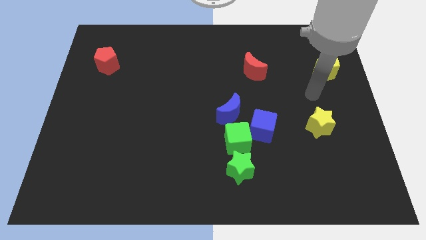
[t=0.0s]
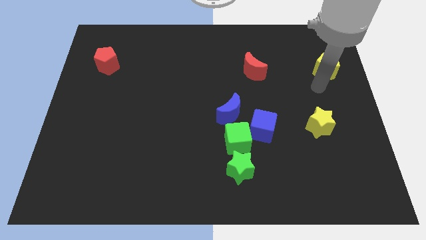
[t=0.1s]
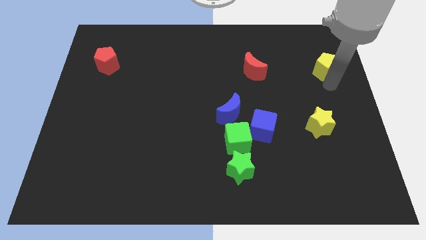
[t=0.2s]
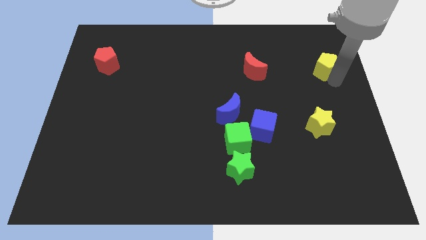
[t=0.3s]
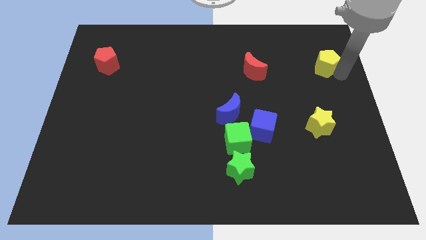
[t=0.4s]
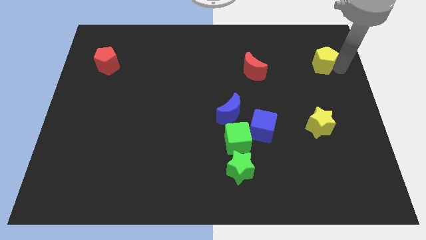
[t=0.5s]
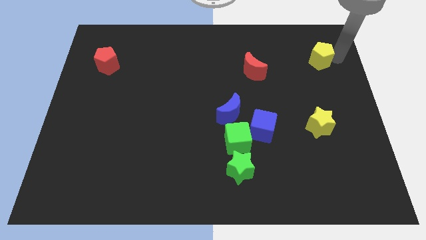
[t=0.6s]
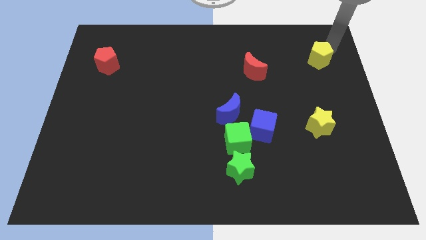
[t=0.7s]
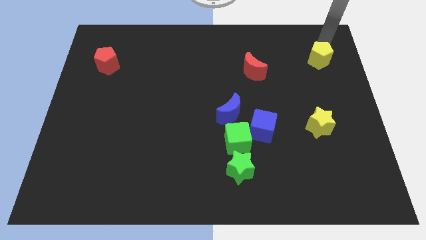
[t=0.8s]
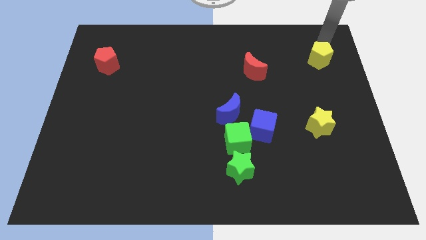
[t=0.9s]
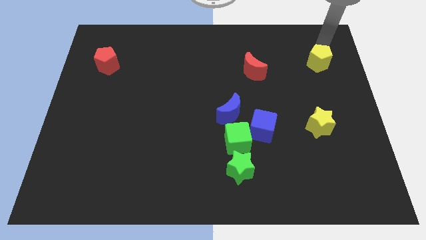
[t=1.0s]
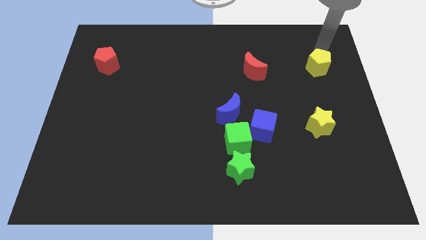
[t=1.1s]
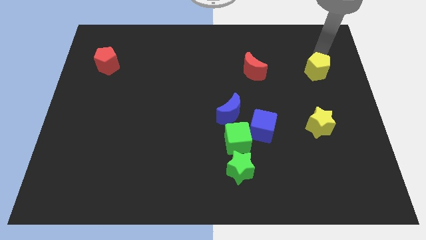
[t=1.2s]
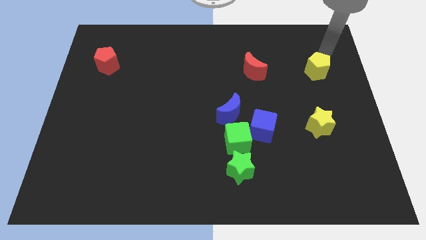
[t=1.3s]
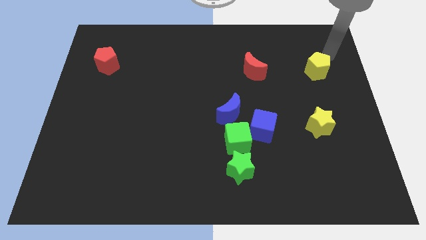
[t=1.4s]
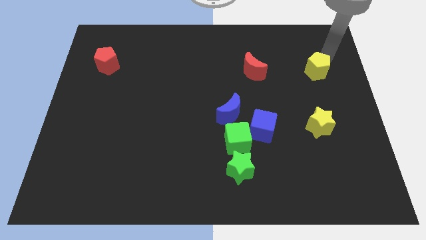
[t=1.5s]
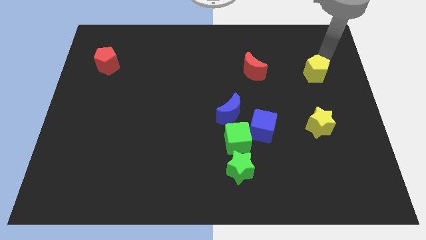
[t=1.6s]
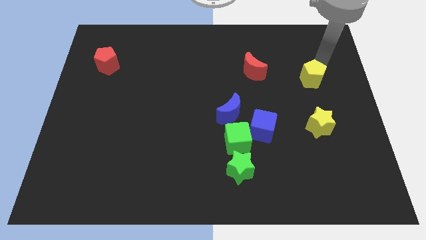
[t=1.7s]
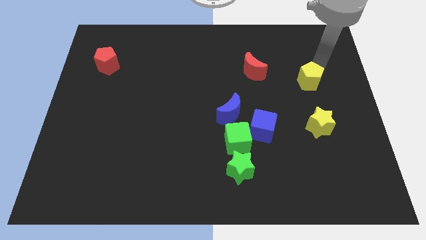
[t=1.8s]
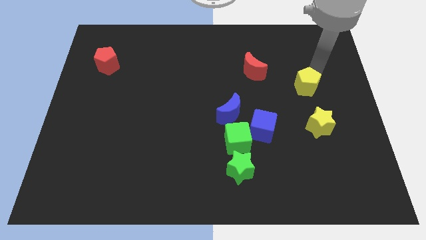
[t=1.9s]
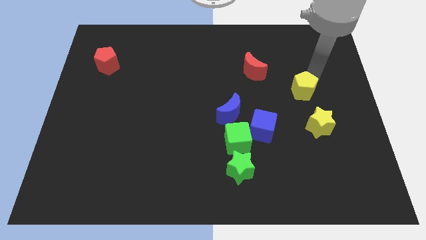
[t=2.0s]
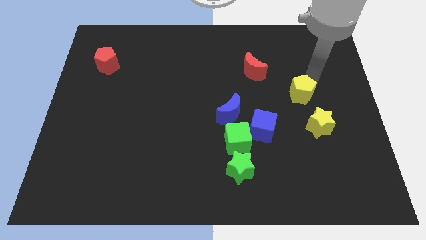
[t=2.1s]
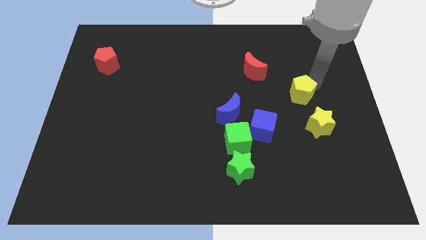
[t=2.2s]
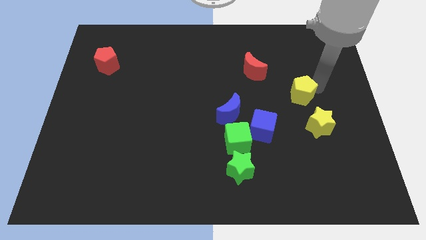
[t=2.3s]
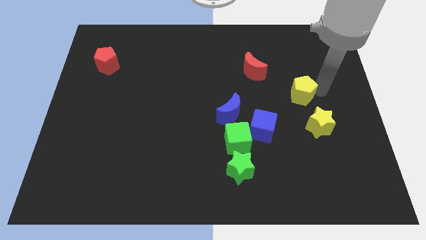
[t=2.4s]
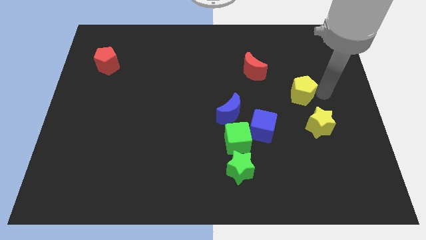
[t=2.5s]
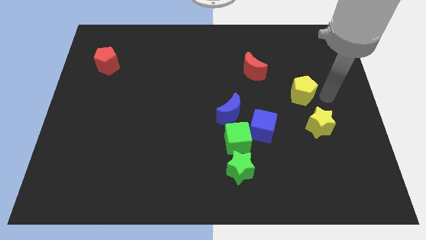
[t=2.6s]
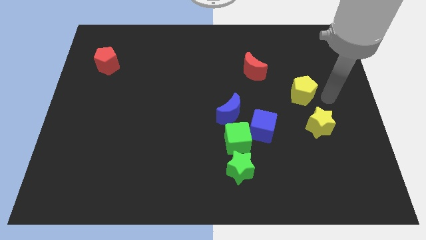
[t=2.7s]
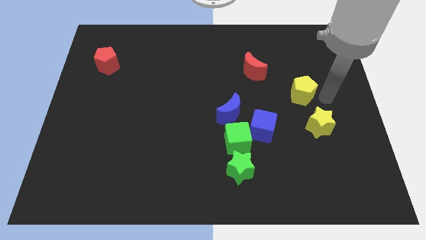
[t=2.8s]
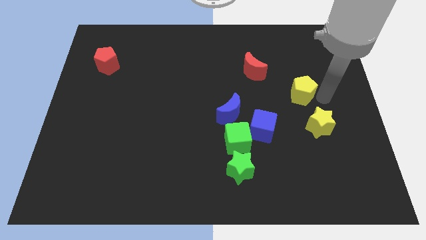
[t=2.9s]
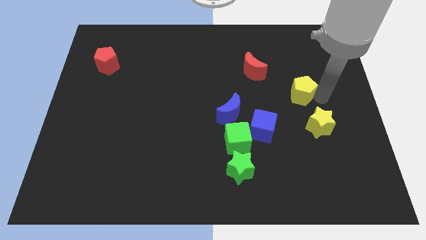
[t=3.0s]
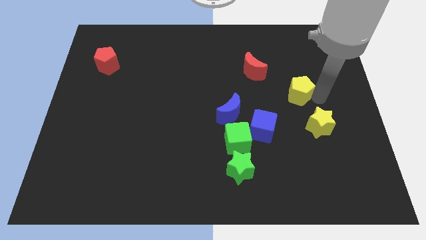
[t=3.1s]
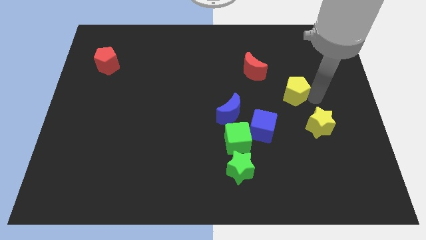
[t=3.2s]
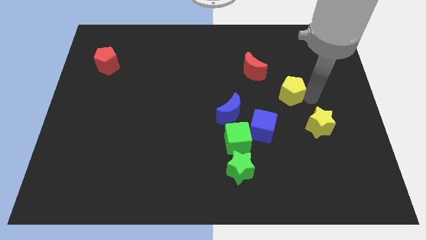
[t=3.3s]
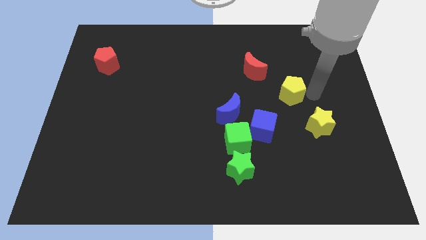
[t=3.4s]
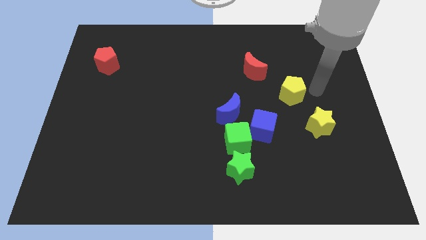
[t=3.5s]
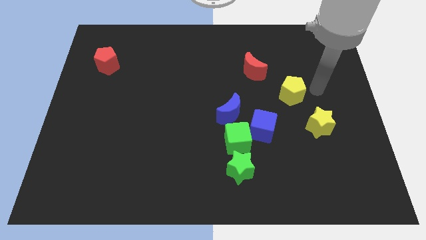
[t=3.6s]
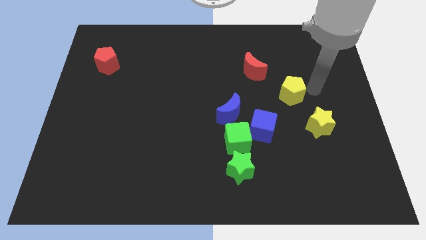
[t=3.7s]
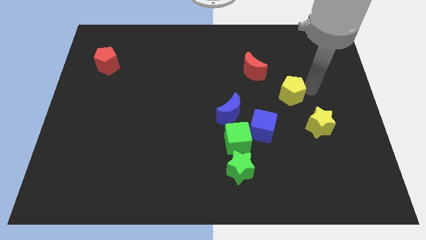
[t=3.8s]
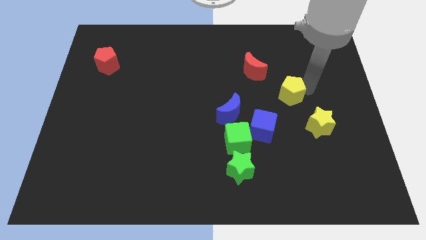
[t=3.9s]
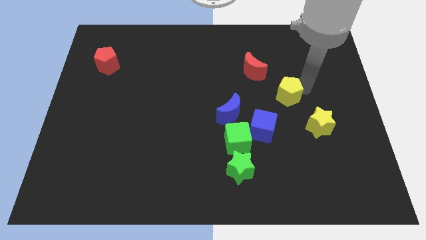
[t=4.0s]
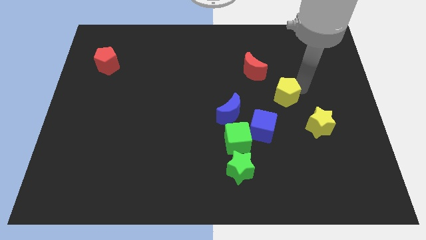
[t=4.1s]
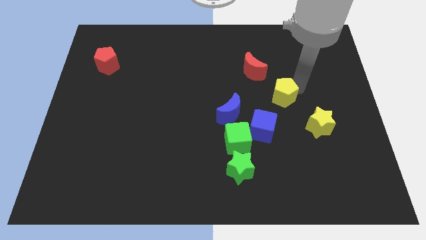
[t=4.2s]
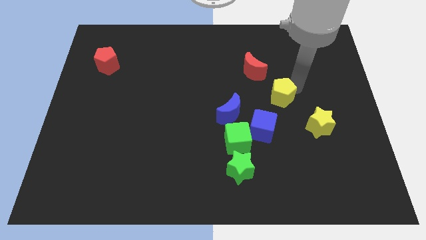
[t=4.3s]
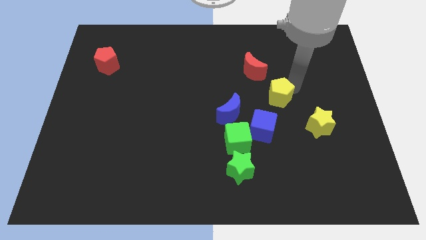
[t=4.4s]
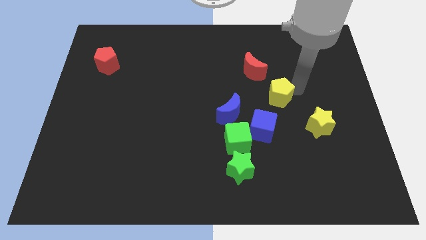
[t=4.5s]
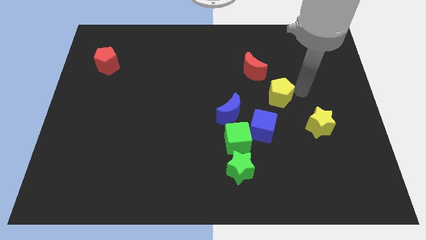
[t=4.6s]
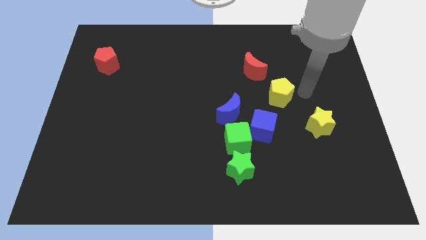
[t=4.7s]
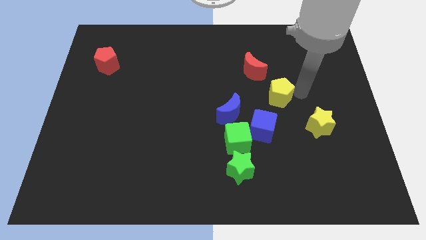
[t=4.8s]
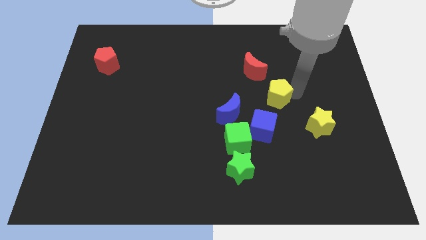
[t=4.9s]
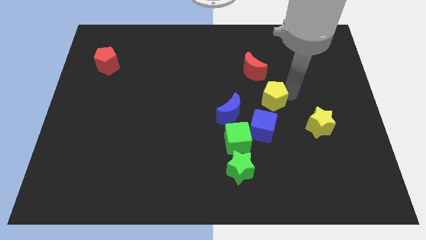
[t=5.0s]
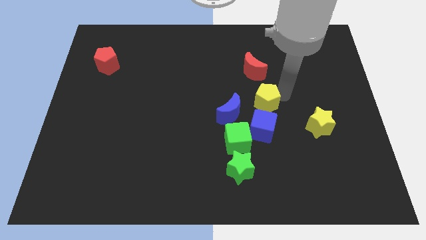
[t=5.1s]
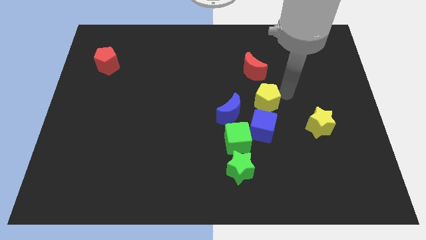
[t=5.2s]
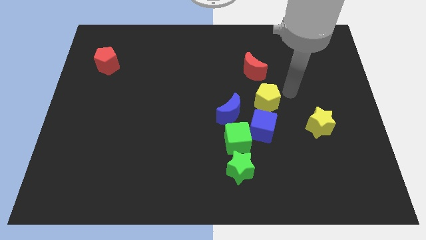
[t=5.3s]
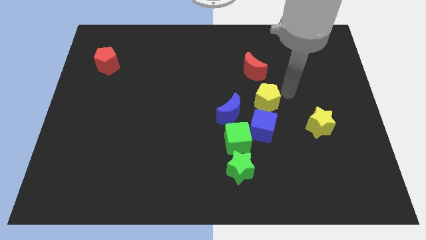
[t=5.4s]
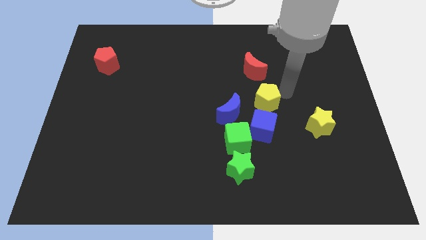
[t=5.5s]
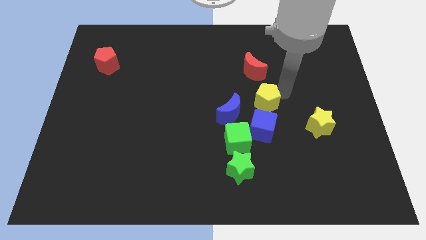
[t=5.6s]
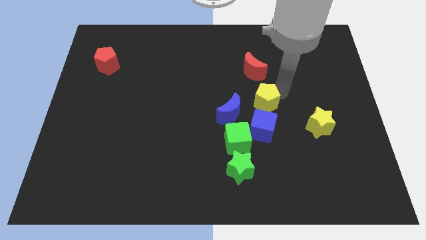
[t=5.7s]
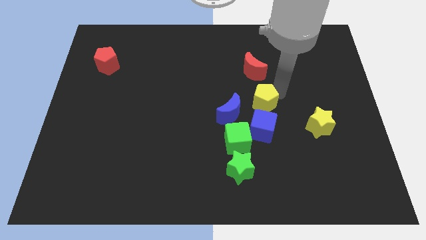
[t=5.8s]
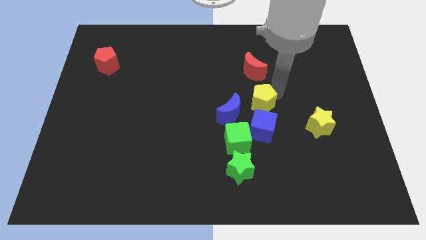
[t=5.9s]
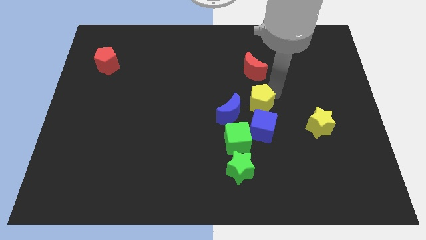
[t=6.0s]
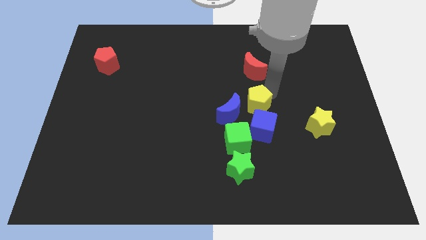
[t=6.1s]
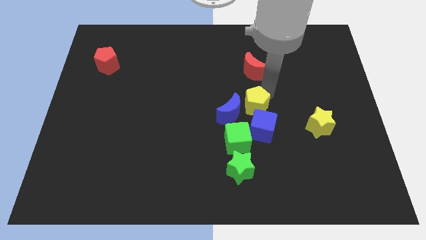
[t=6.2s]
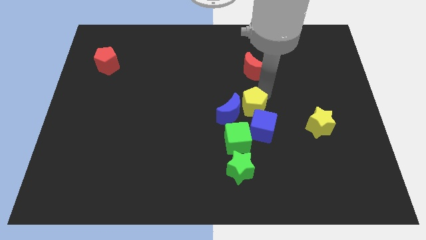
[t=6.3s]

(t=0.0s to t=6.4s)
slide the yellow pentagon to the blue moon
